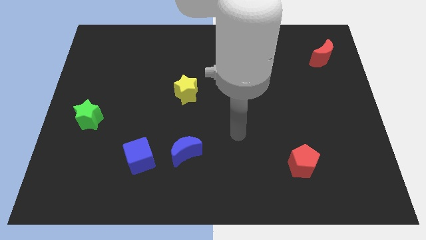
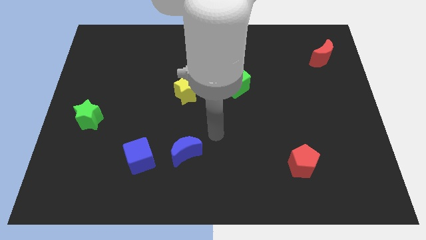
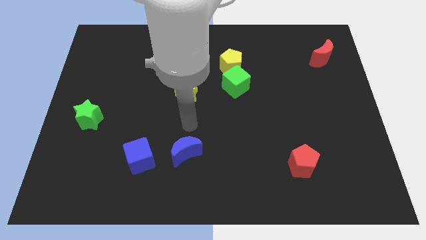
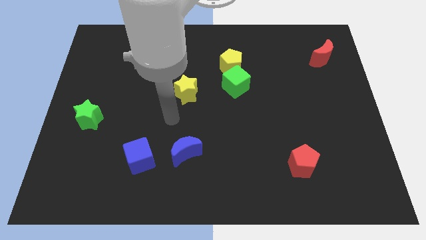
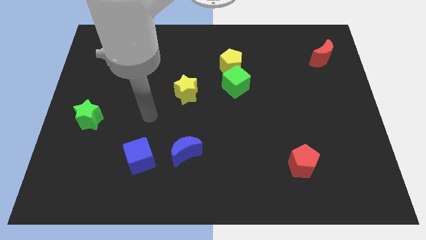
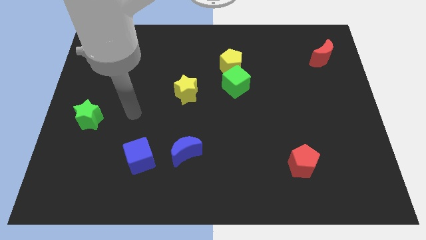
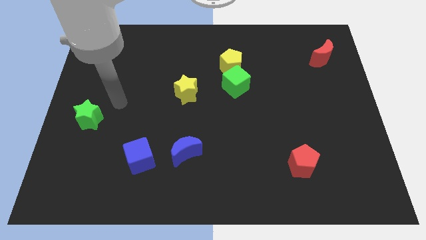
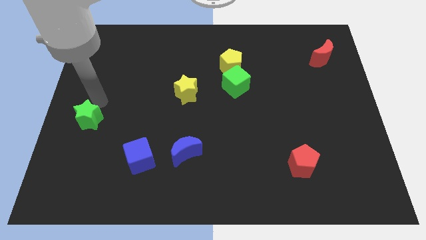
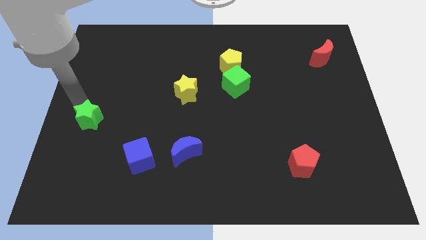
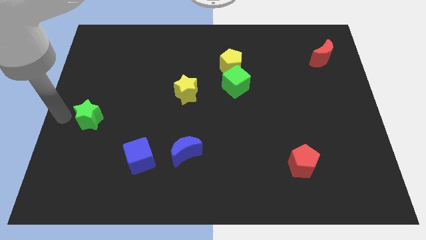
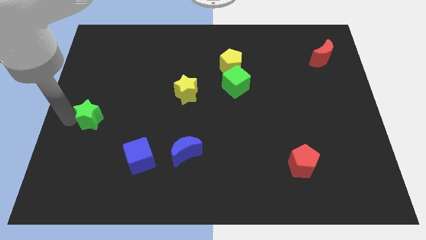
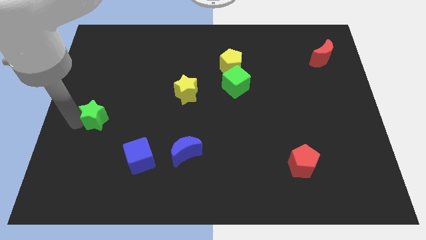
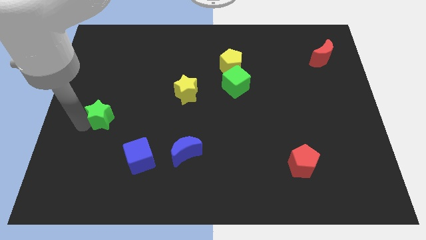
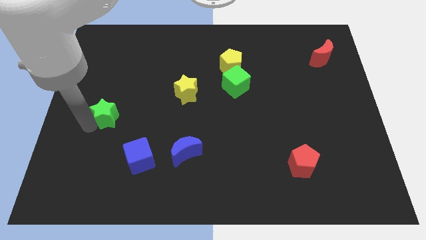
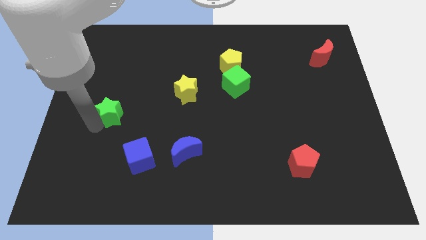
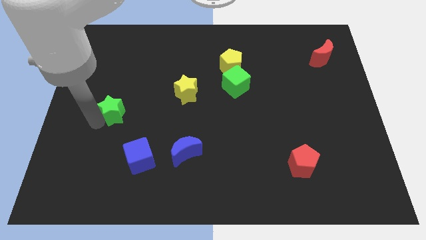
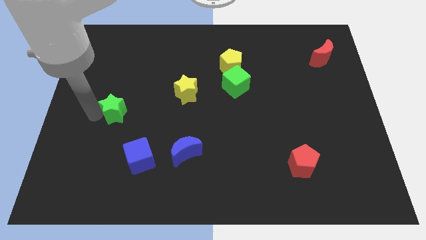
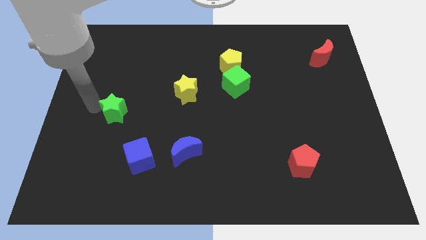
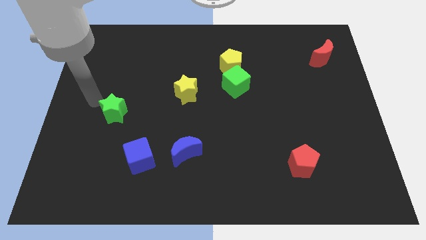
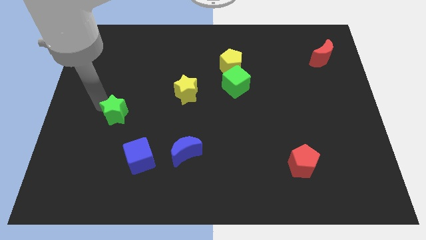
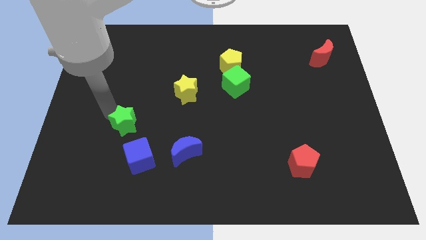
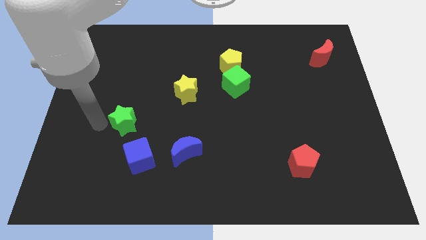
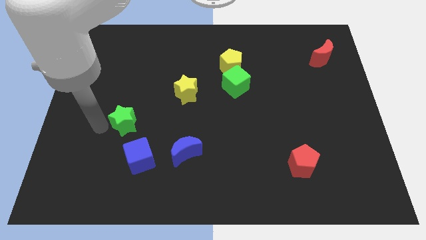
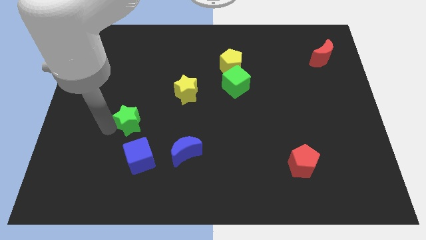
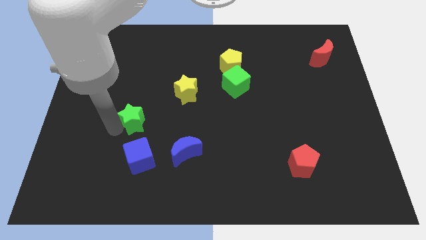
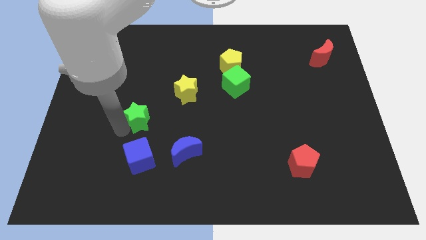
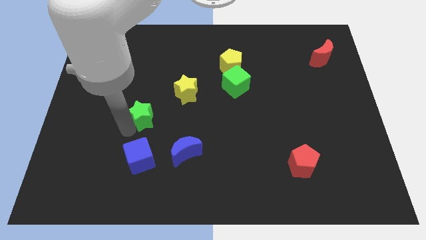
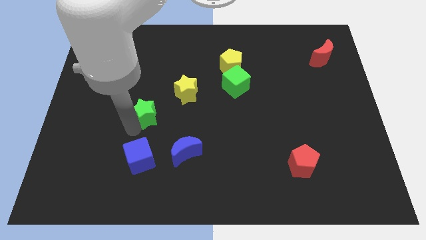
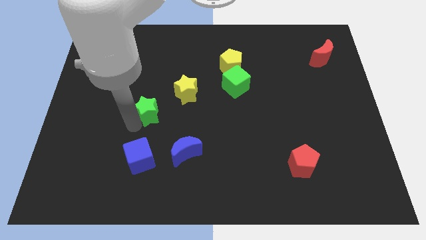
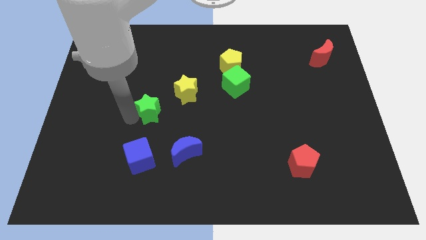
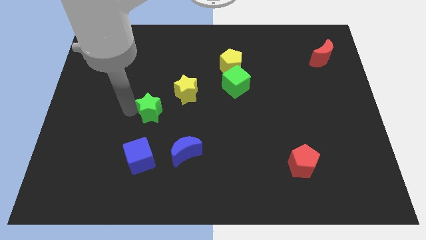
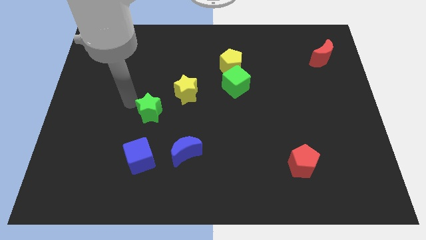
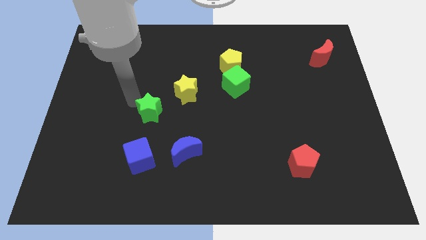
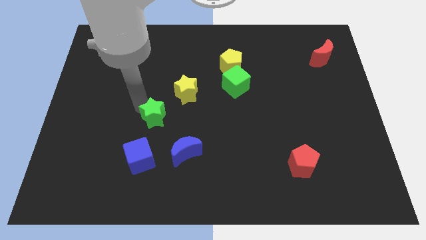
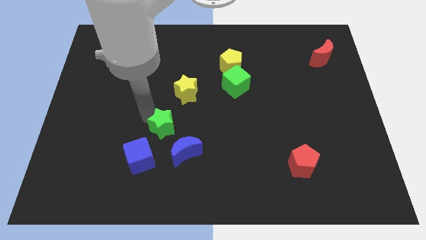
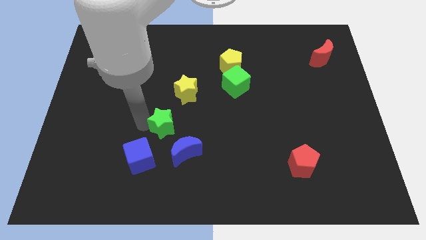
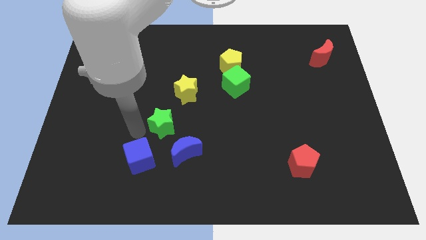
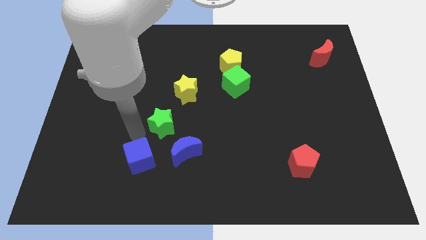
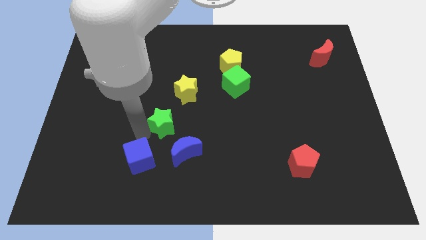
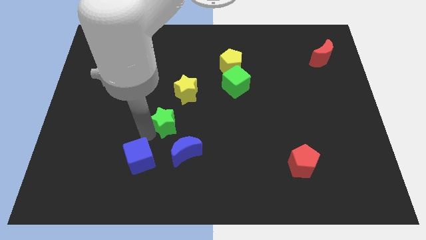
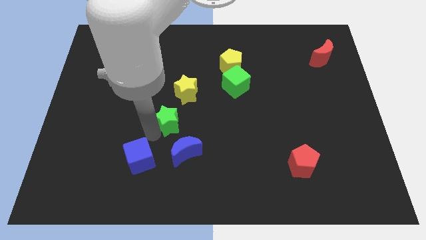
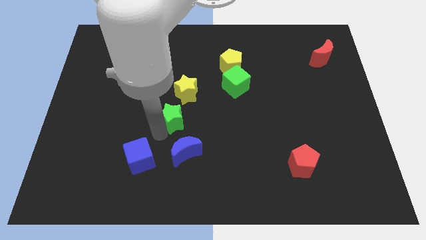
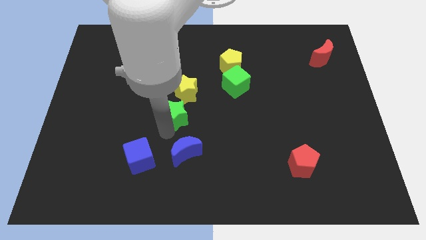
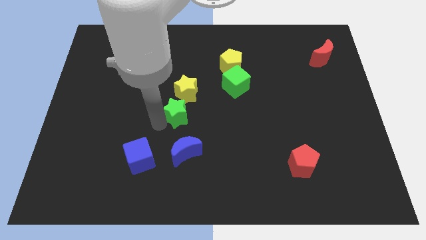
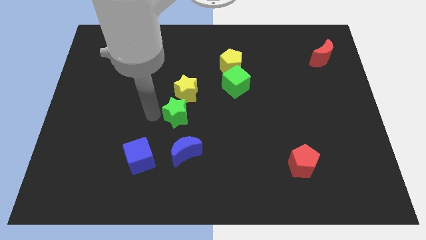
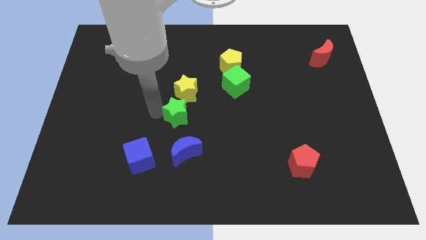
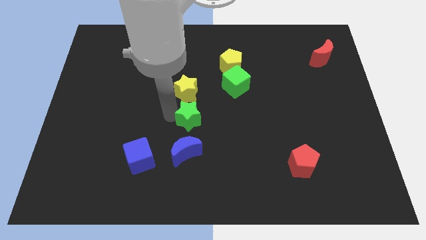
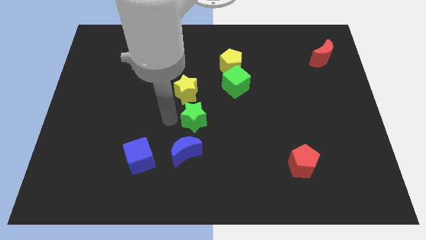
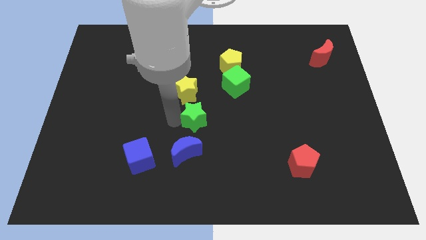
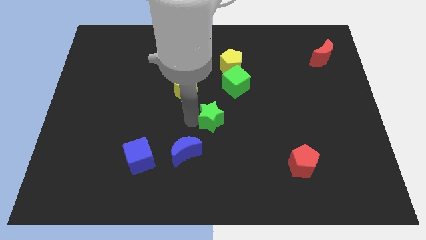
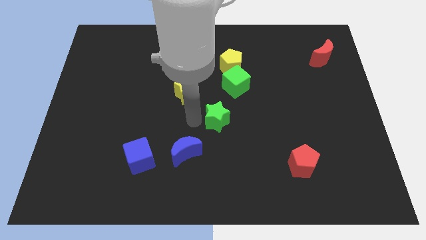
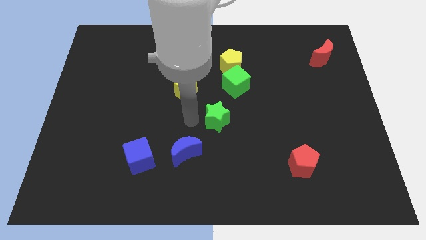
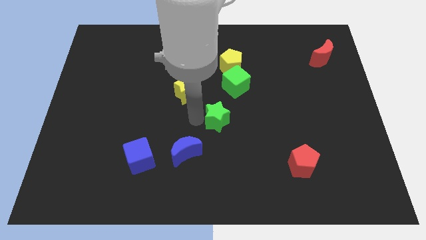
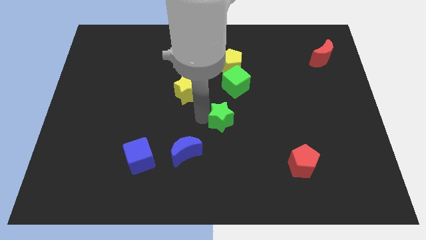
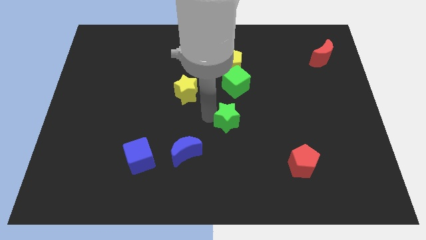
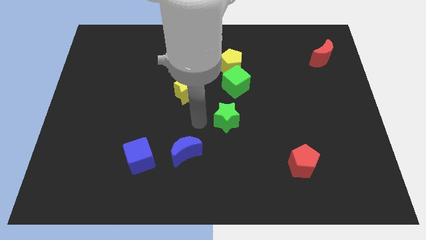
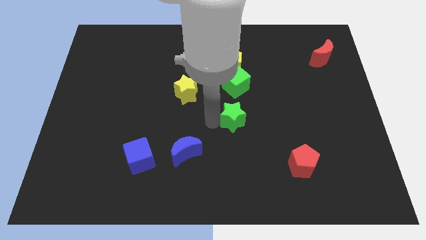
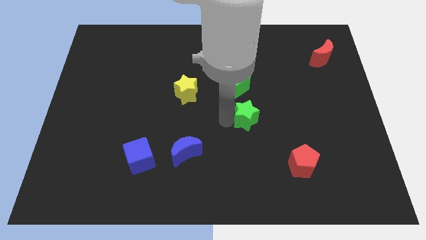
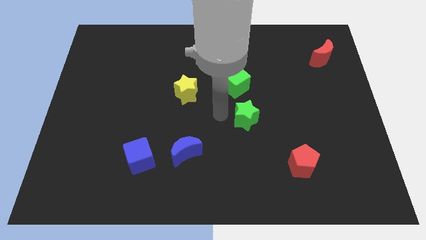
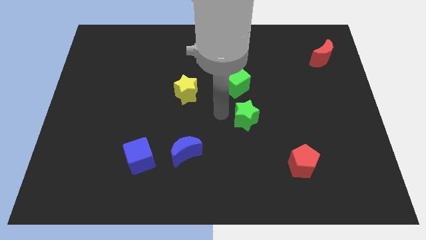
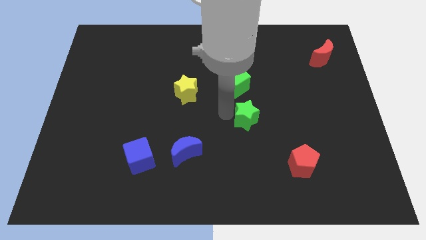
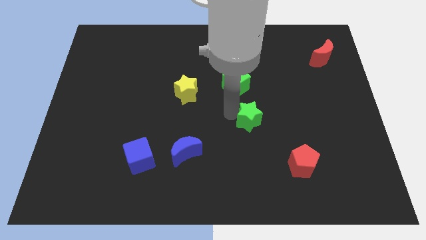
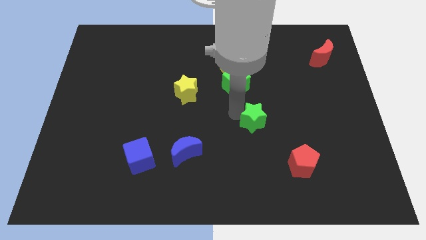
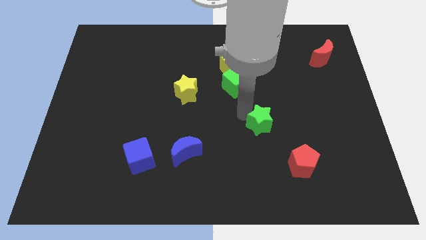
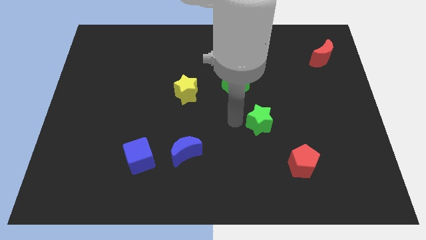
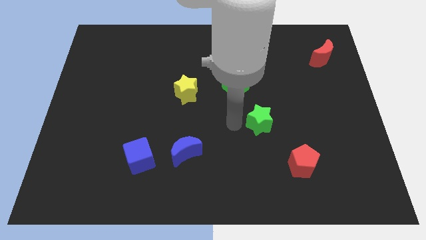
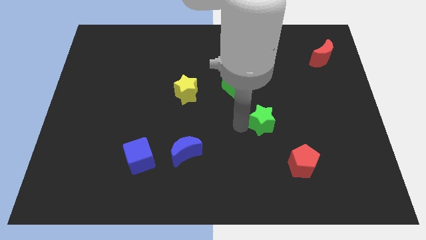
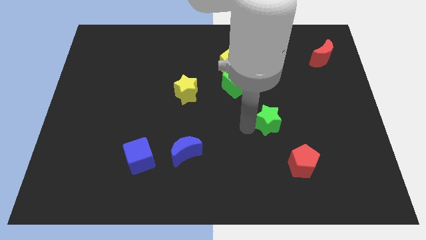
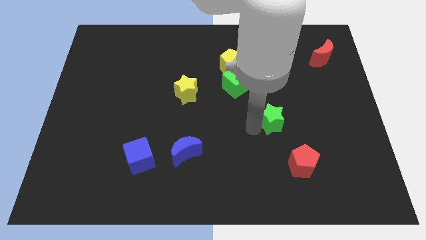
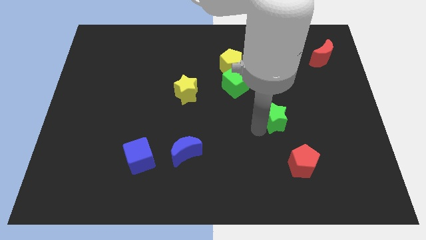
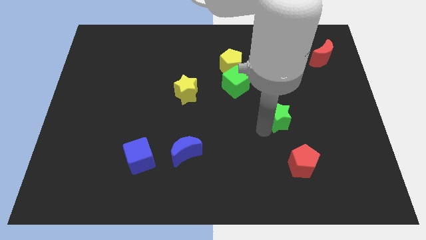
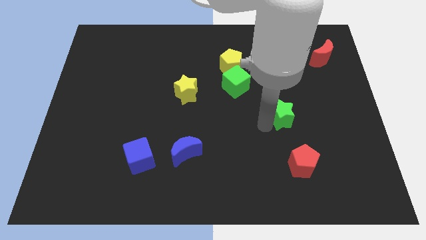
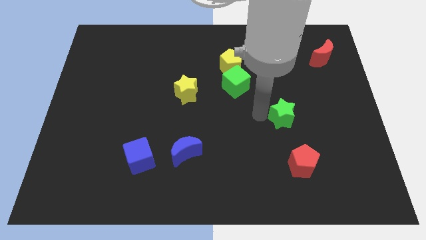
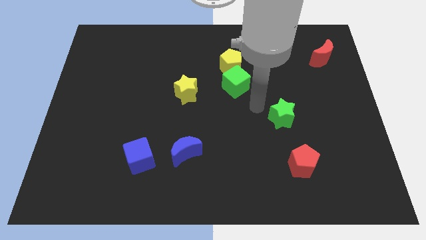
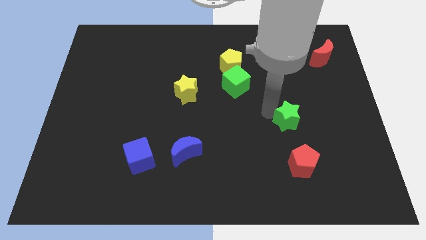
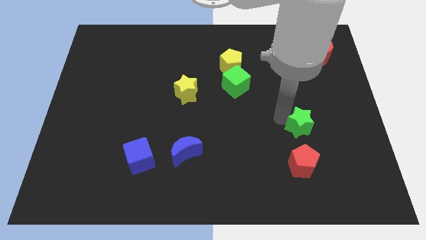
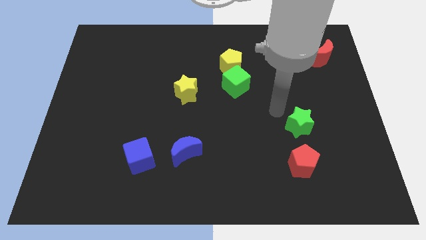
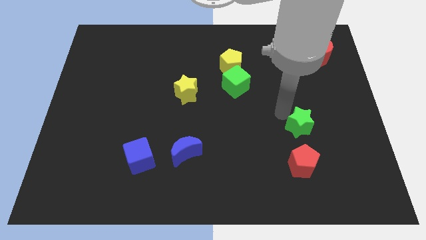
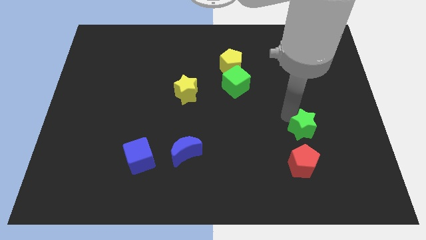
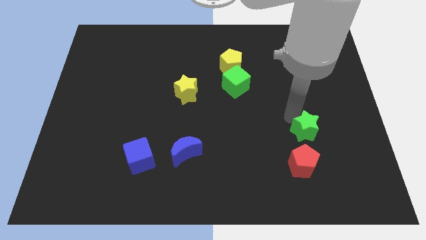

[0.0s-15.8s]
put the green star diagonally up and to the right of the red pentagon
